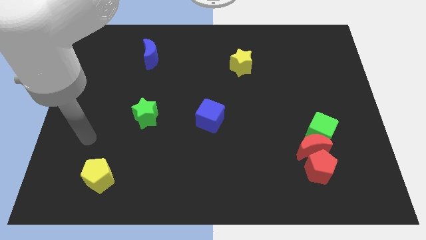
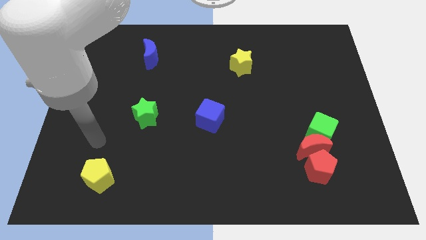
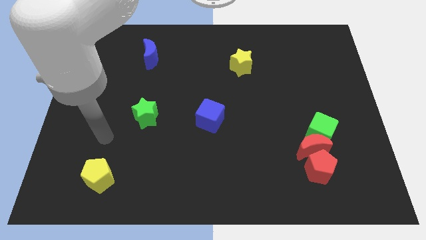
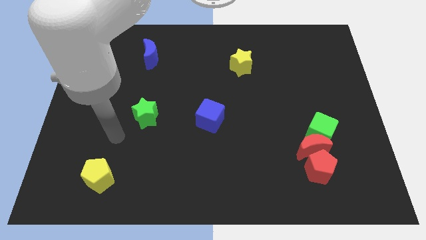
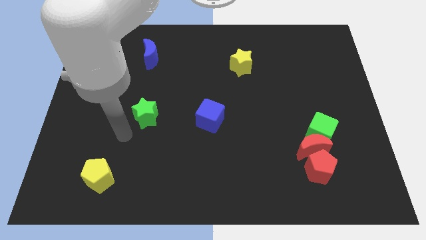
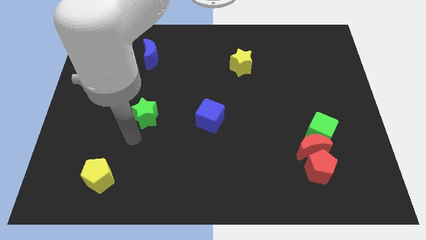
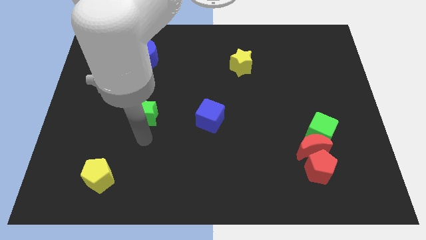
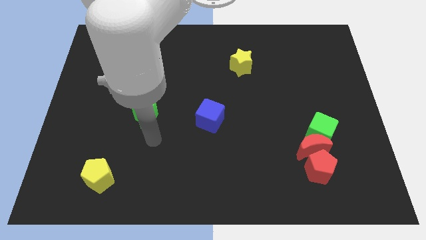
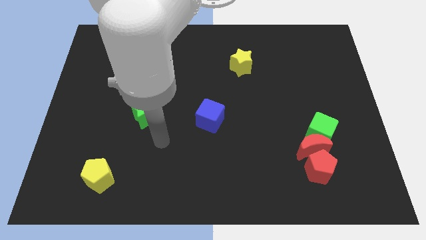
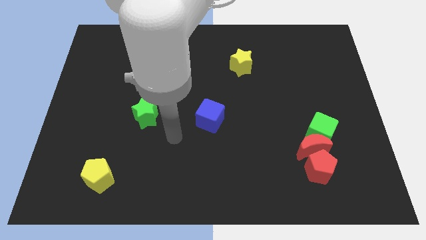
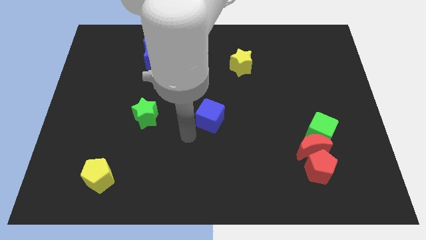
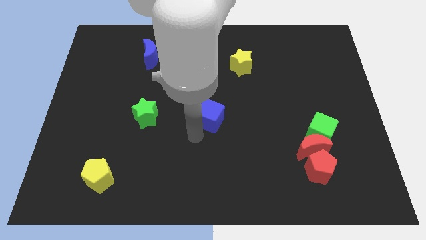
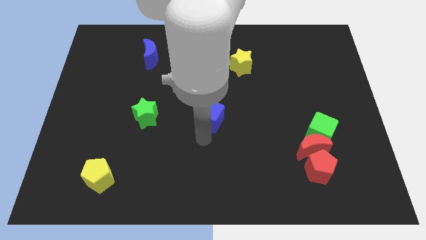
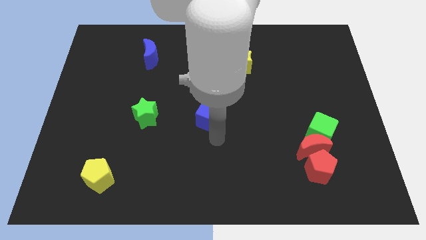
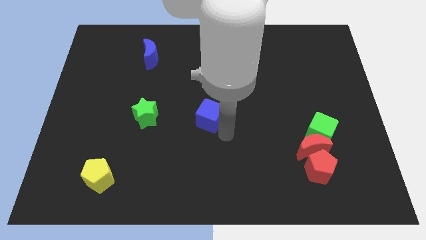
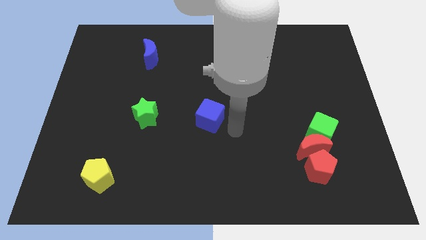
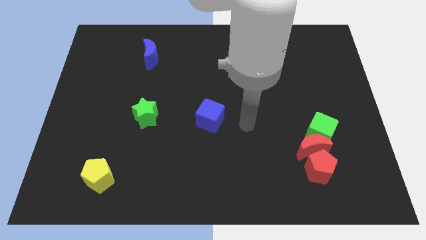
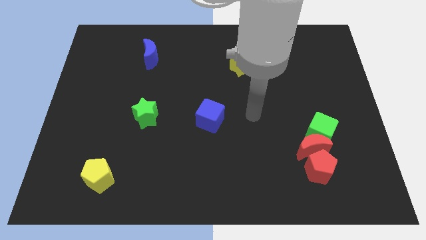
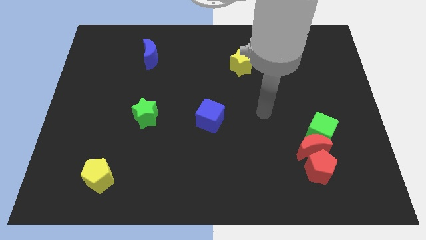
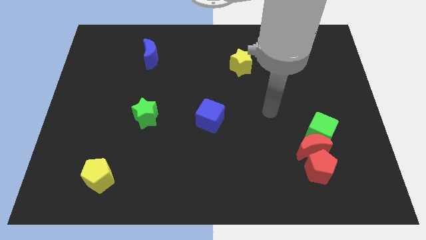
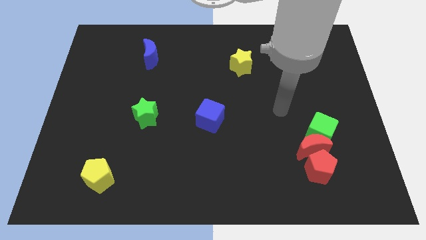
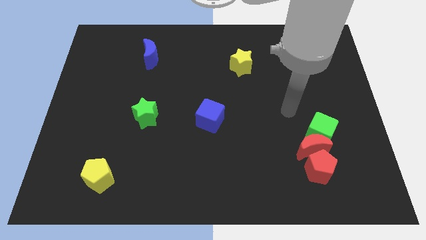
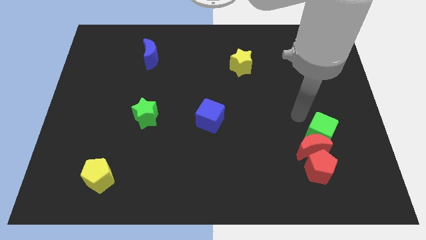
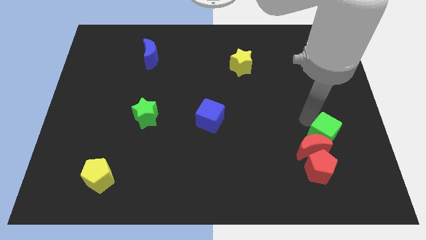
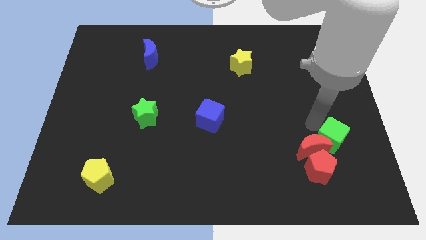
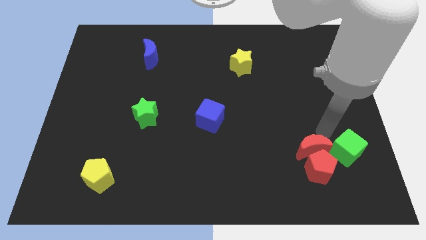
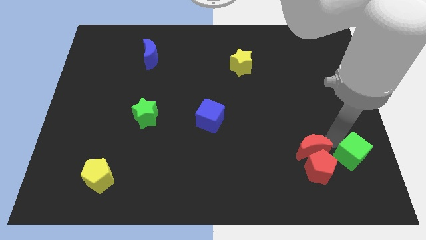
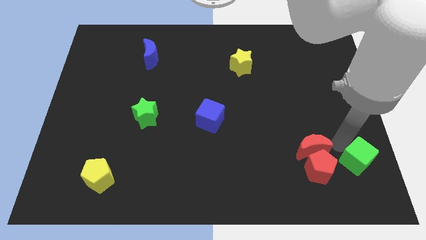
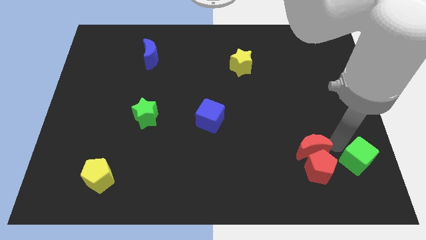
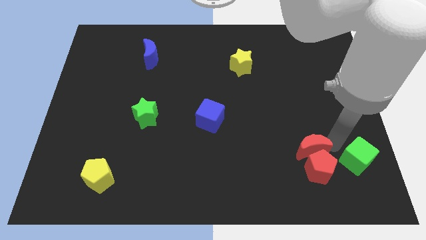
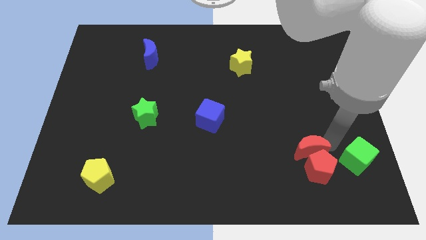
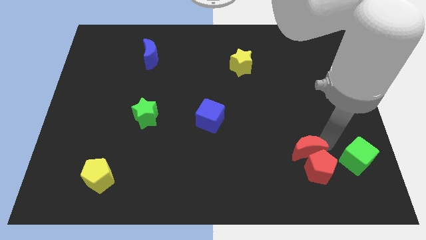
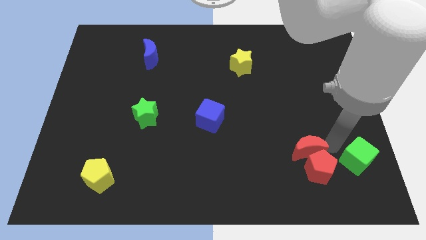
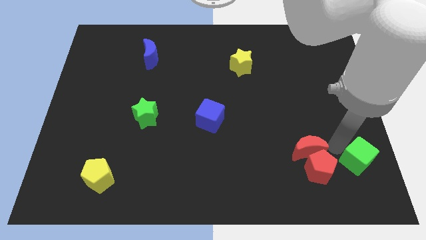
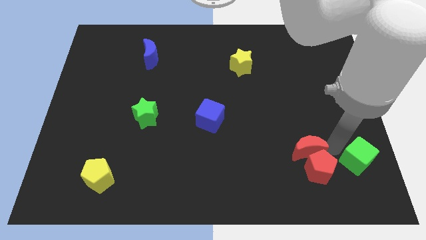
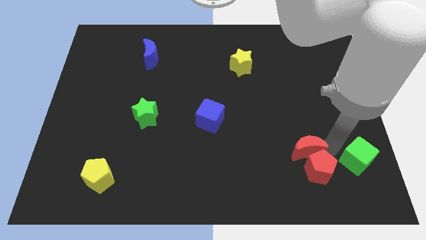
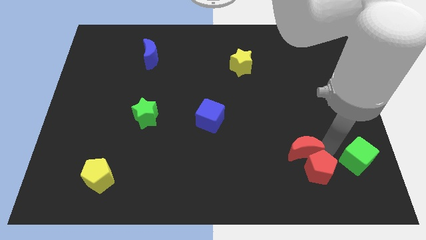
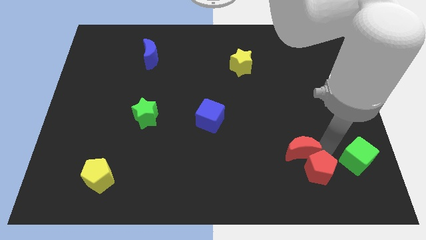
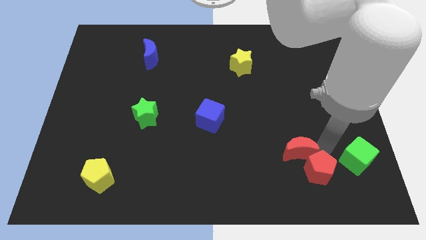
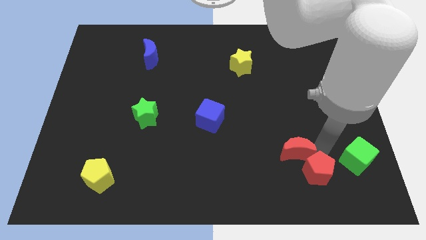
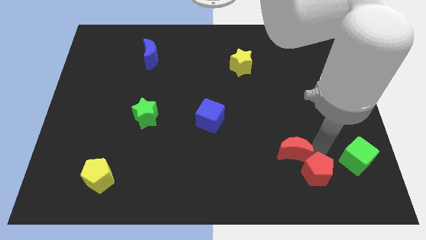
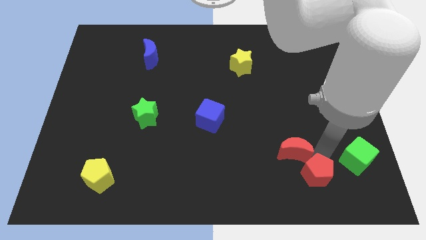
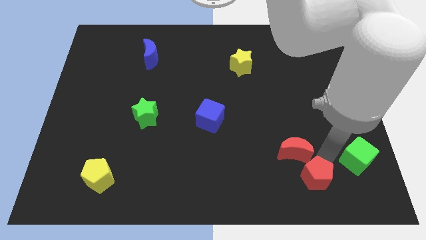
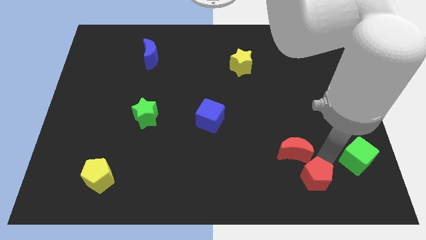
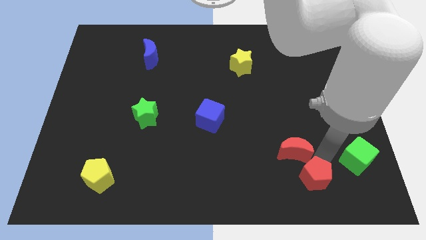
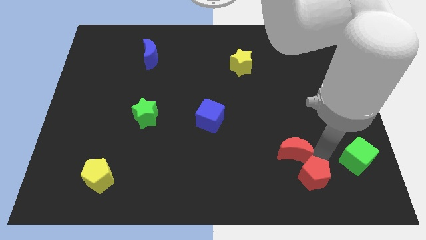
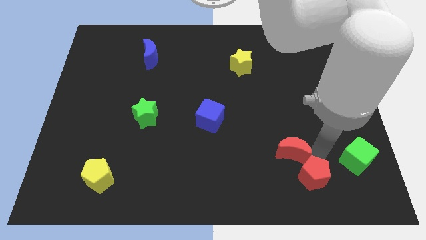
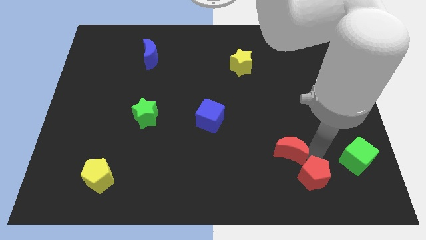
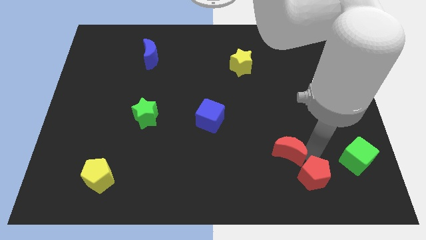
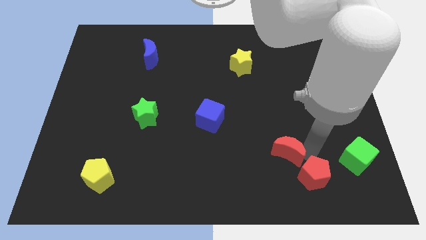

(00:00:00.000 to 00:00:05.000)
separate the red moon from the green cube and red pentagon

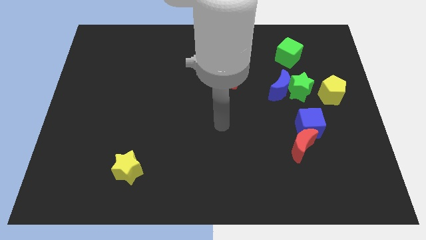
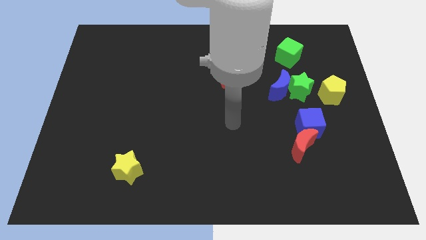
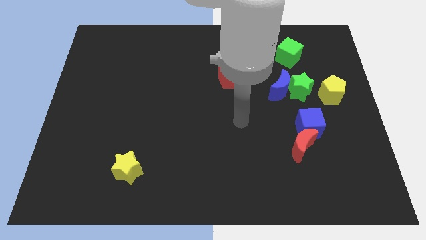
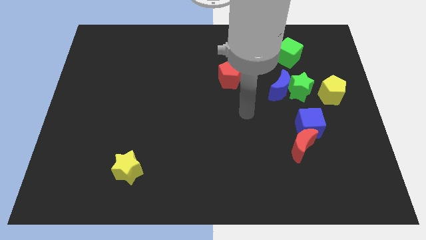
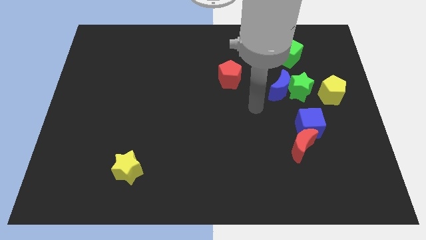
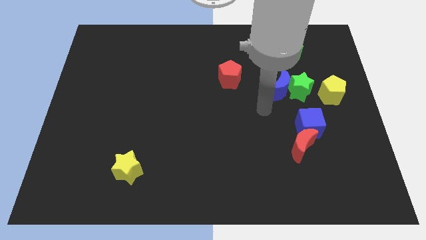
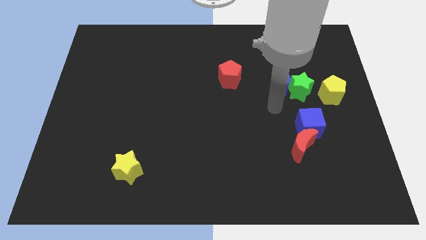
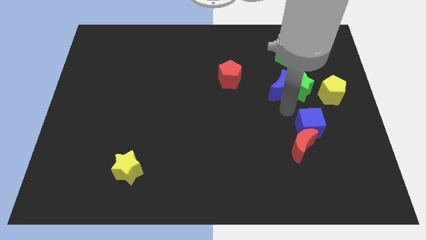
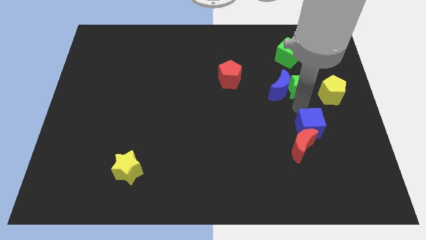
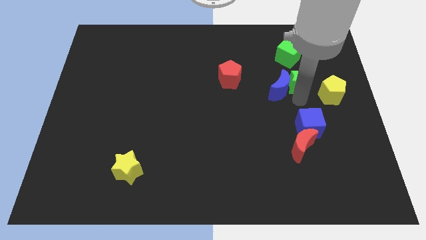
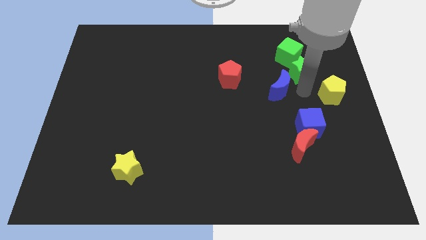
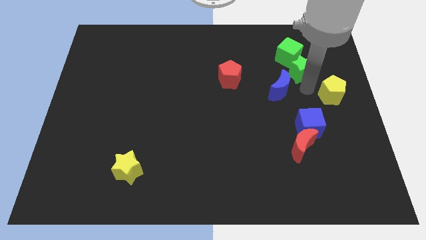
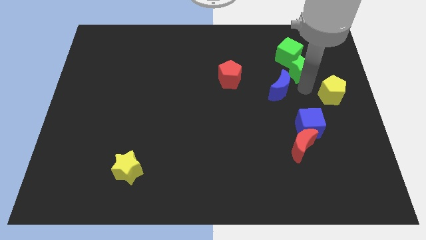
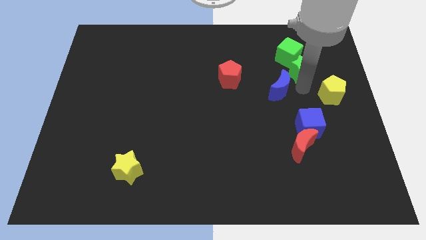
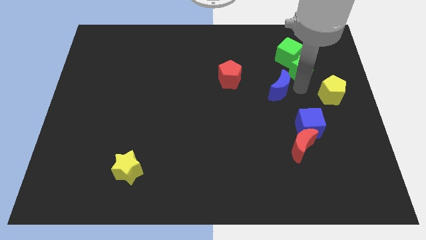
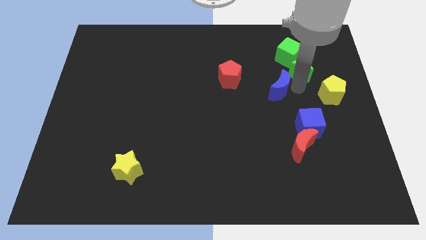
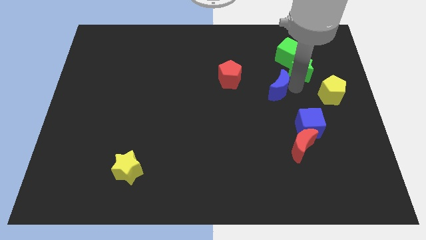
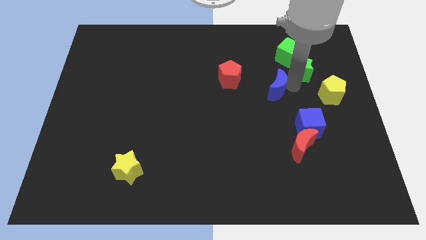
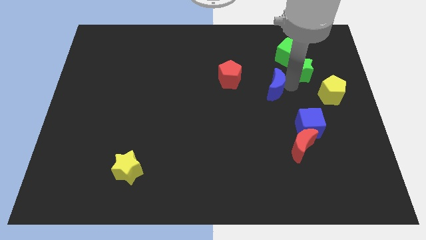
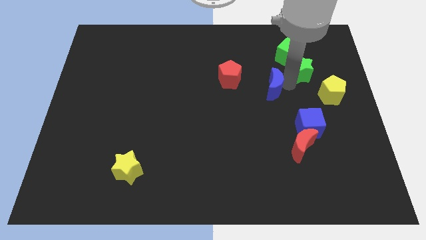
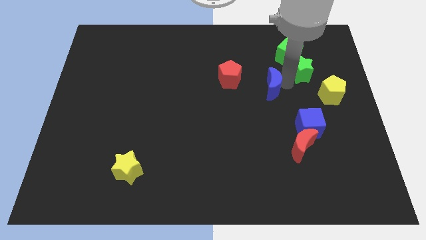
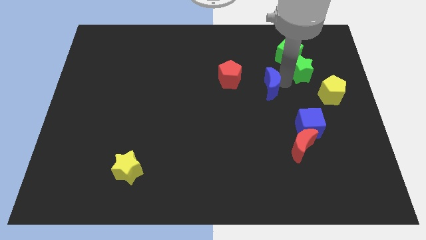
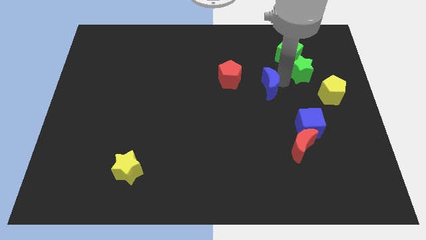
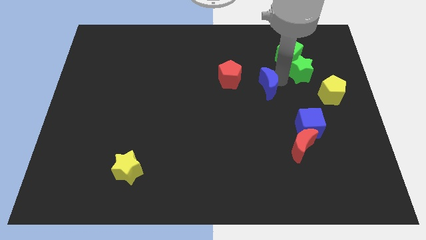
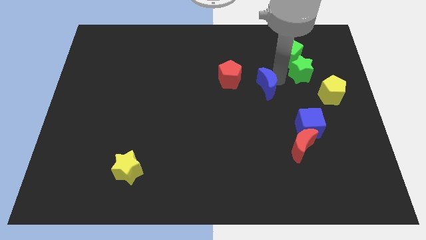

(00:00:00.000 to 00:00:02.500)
move the blue moon away from the green star

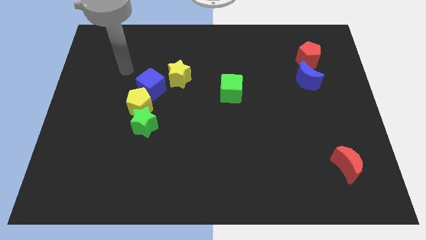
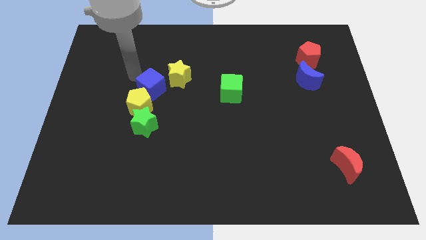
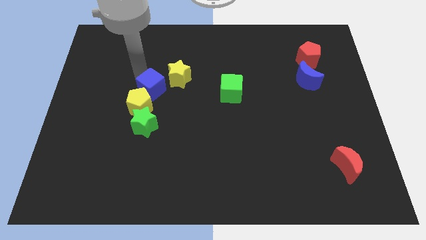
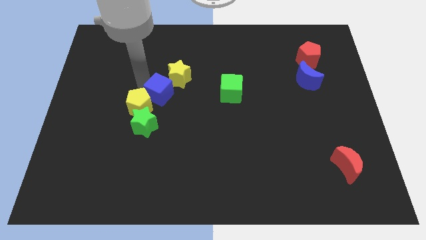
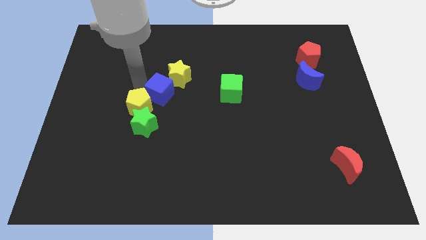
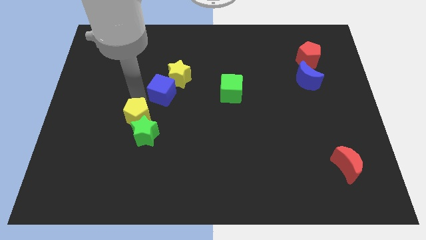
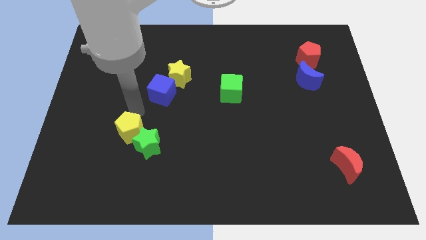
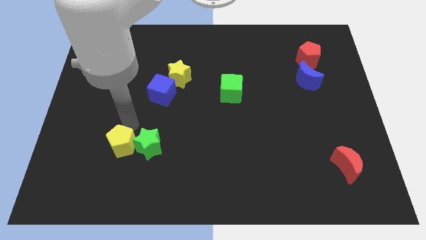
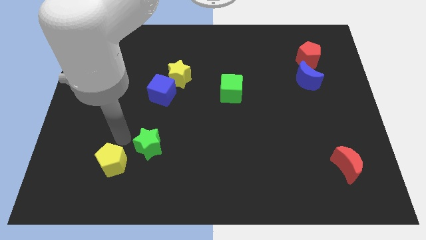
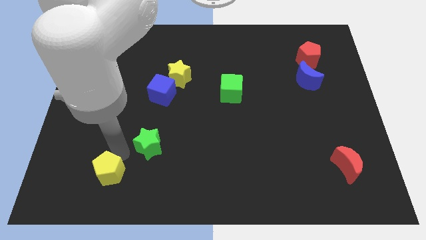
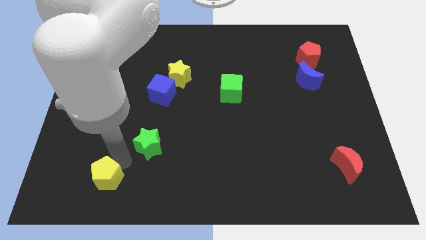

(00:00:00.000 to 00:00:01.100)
separate the green star from the yellow pentagon

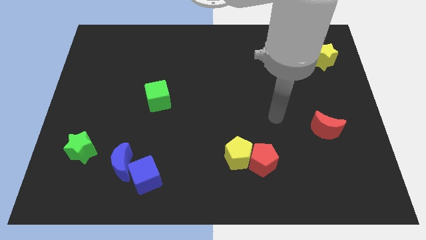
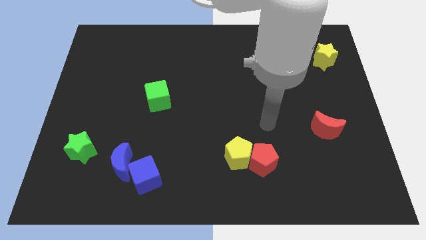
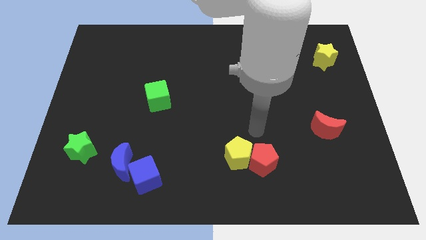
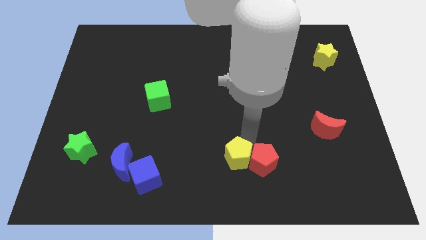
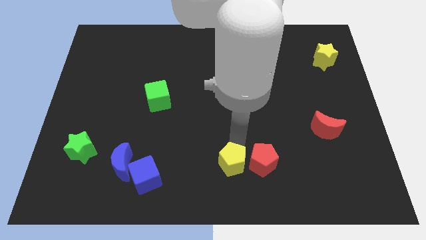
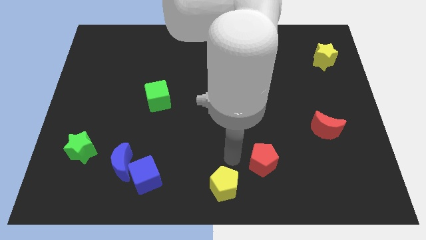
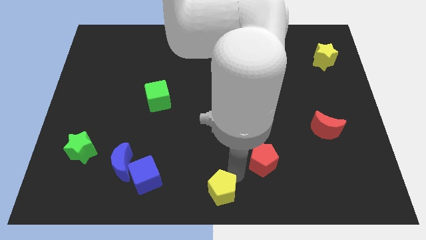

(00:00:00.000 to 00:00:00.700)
separate the red pentagon from the yellow pentagon
